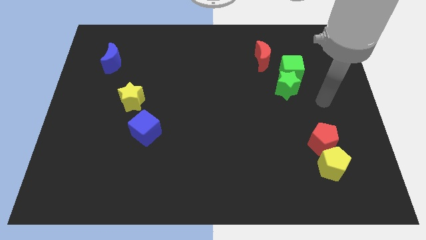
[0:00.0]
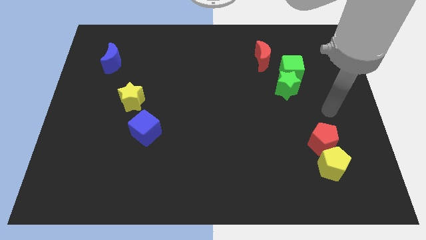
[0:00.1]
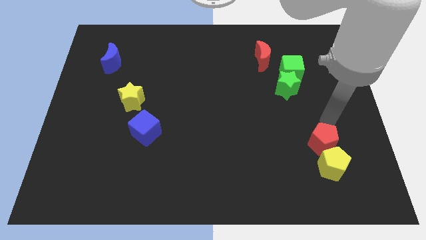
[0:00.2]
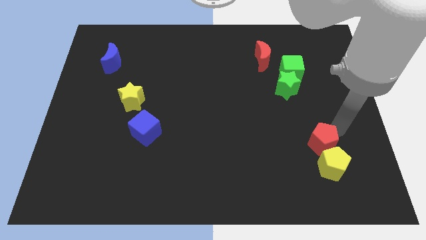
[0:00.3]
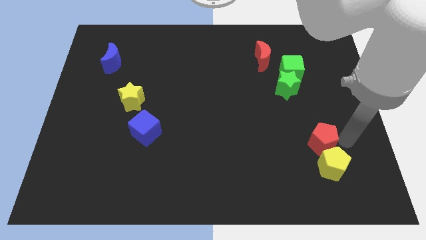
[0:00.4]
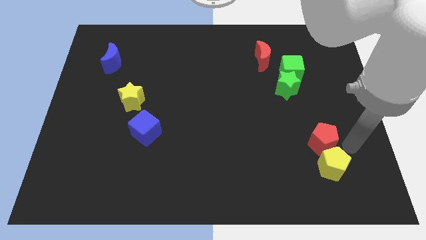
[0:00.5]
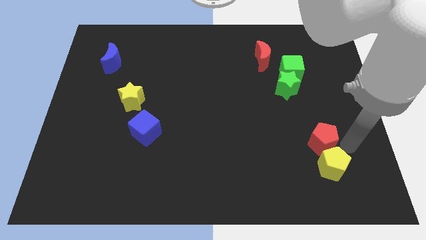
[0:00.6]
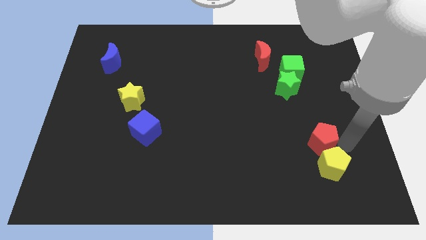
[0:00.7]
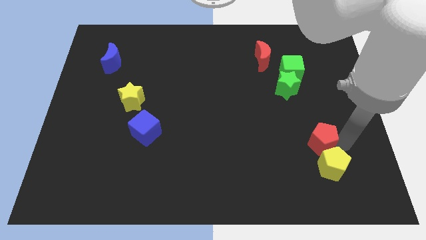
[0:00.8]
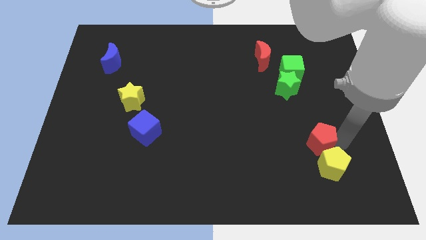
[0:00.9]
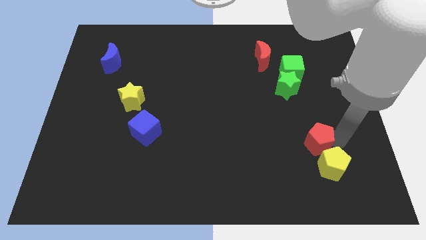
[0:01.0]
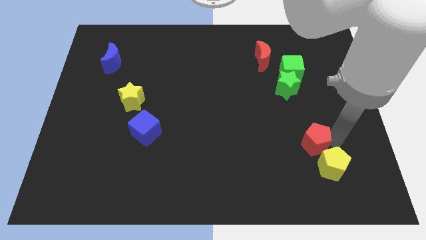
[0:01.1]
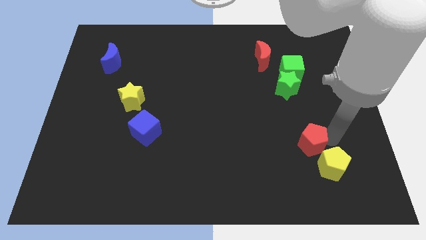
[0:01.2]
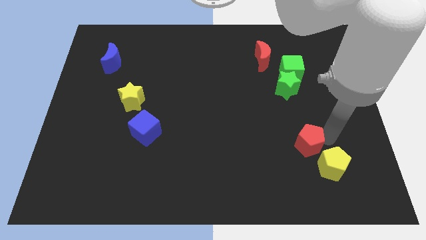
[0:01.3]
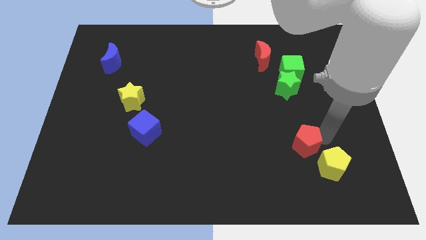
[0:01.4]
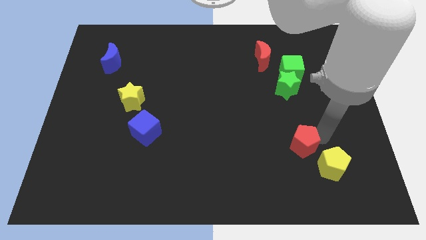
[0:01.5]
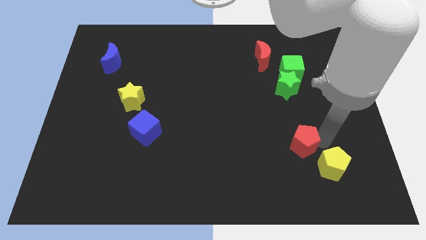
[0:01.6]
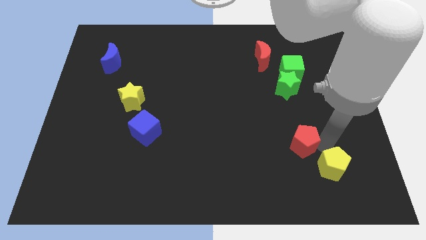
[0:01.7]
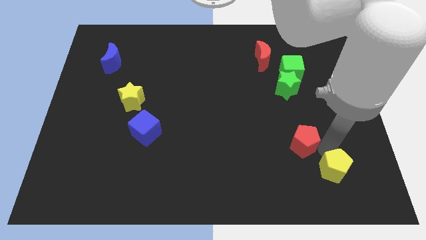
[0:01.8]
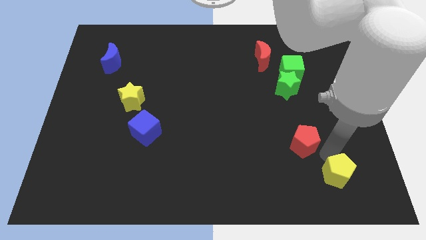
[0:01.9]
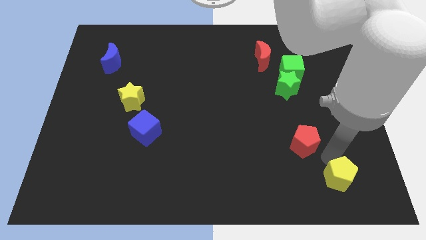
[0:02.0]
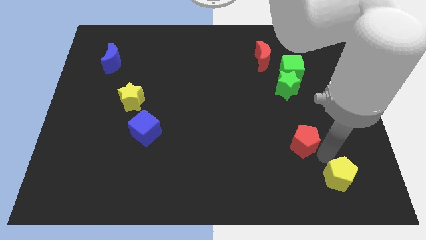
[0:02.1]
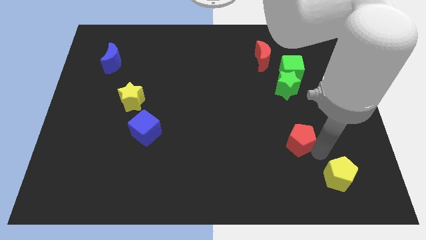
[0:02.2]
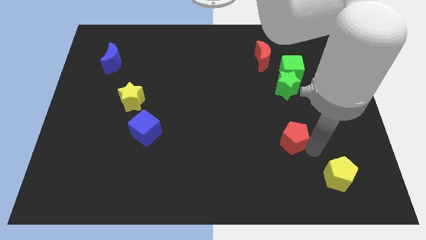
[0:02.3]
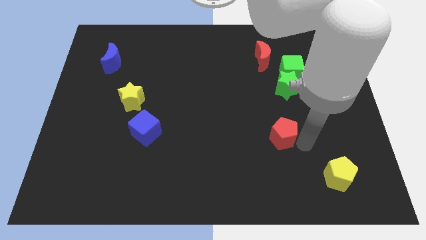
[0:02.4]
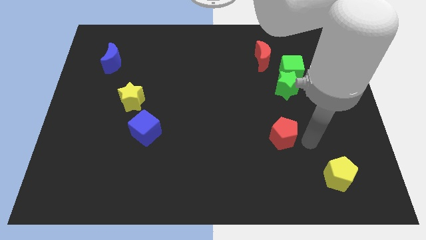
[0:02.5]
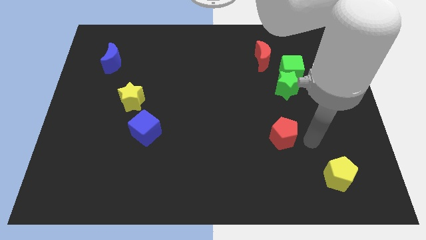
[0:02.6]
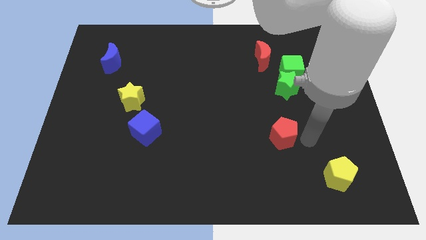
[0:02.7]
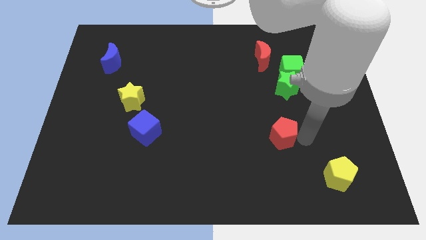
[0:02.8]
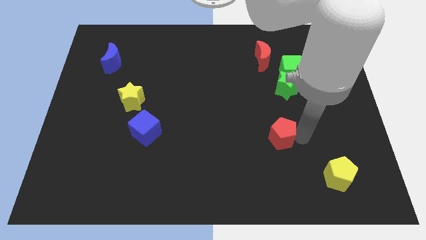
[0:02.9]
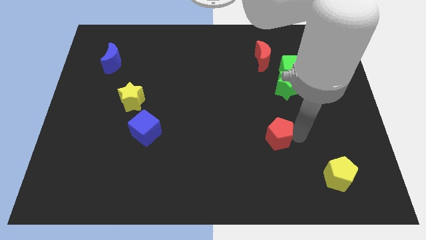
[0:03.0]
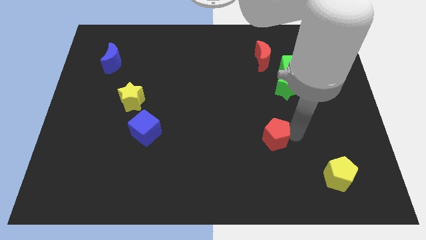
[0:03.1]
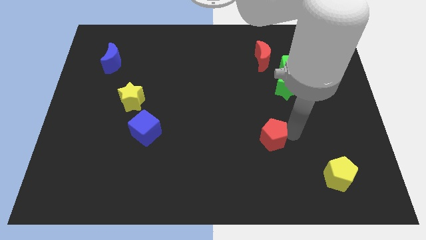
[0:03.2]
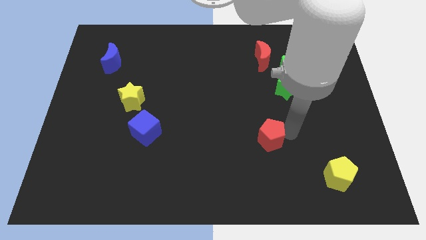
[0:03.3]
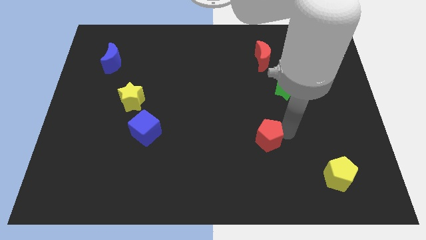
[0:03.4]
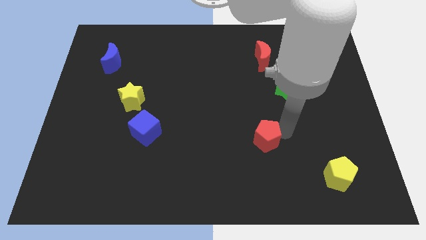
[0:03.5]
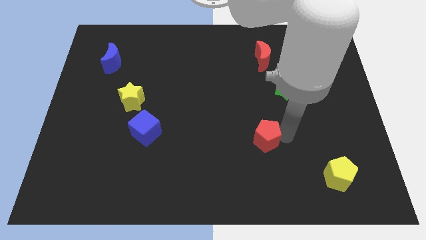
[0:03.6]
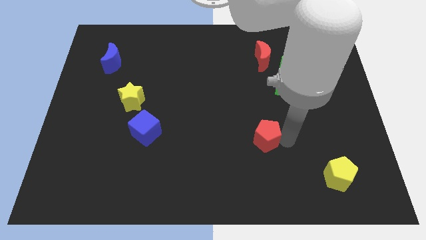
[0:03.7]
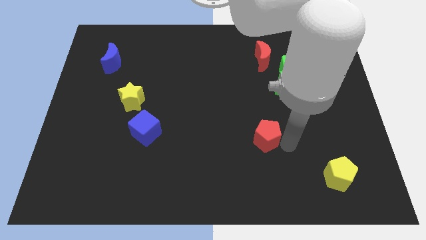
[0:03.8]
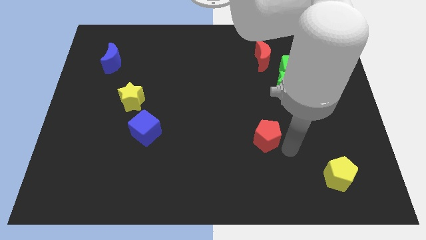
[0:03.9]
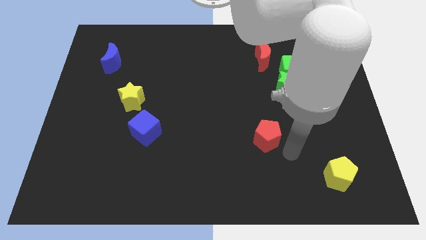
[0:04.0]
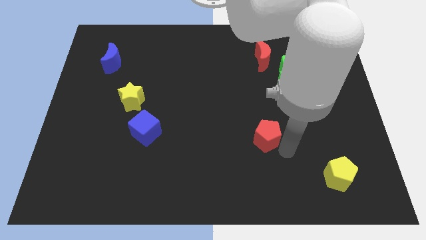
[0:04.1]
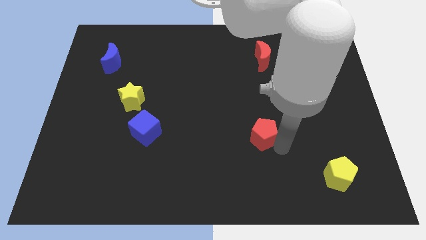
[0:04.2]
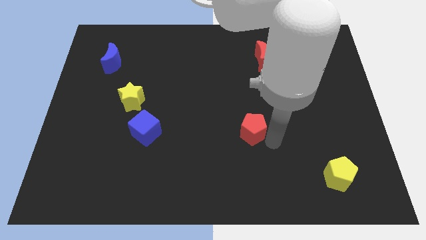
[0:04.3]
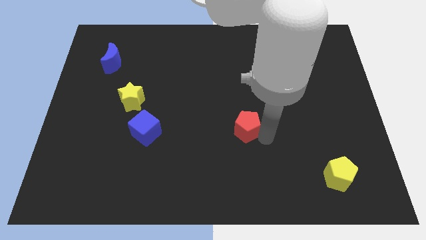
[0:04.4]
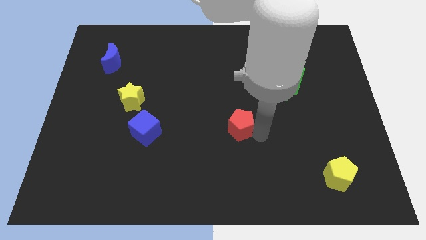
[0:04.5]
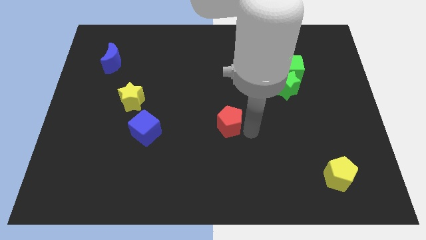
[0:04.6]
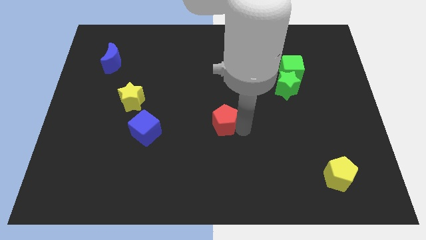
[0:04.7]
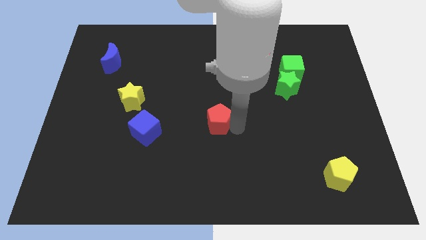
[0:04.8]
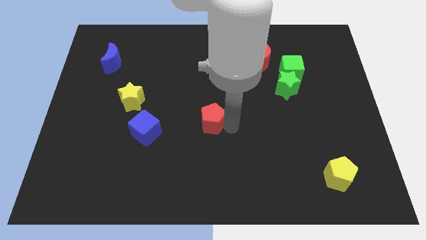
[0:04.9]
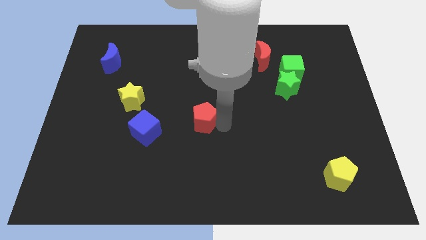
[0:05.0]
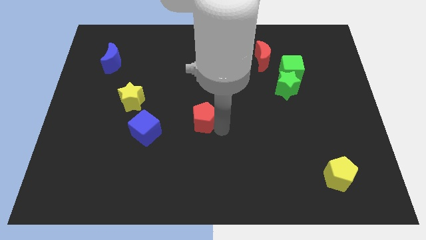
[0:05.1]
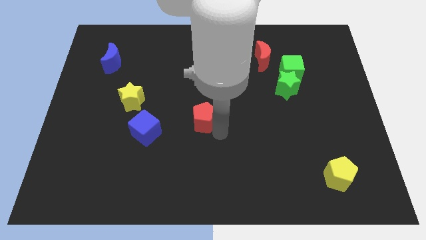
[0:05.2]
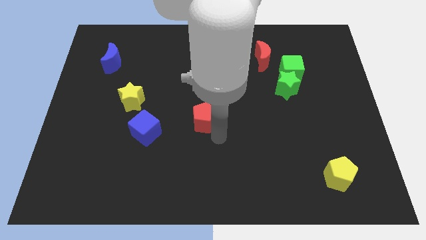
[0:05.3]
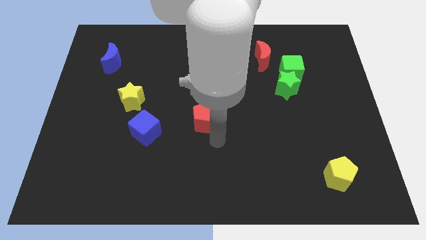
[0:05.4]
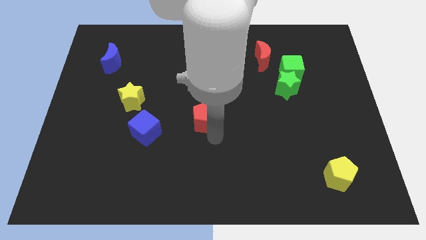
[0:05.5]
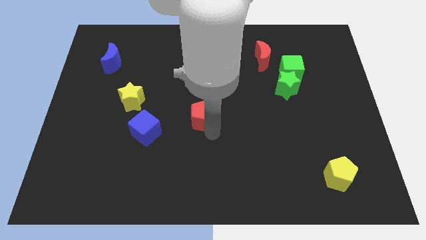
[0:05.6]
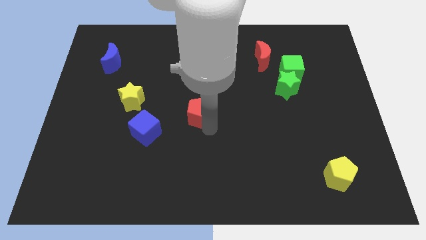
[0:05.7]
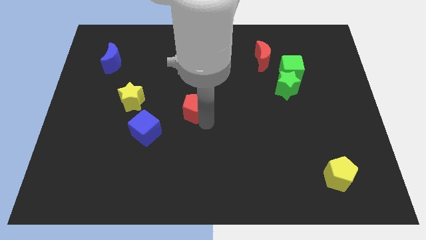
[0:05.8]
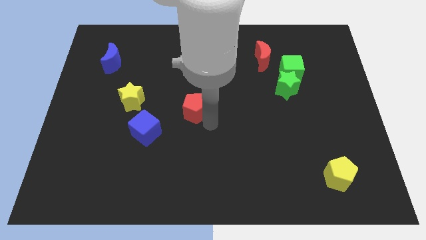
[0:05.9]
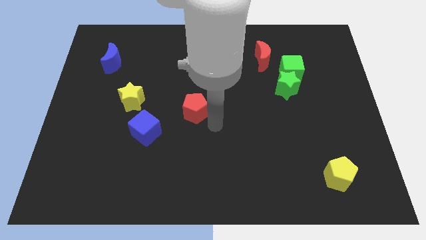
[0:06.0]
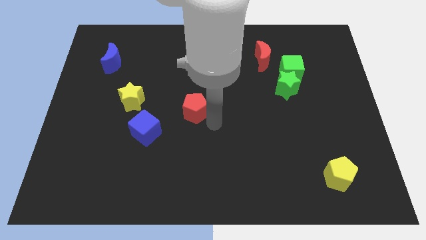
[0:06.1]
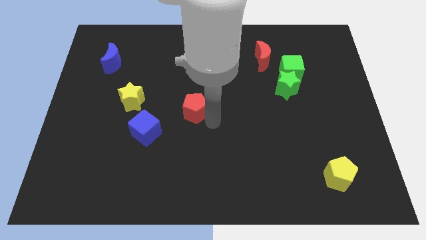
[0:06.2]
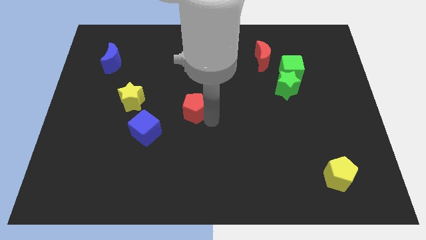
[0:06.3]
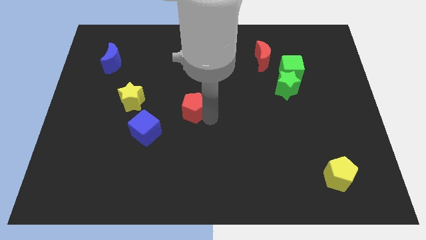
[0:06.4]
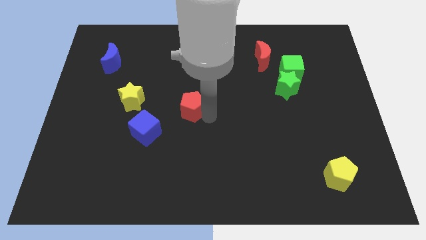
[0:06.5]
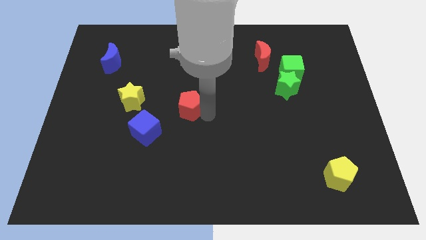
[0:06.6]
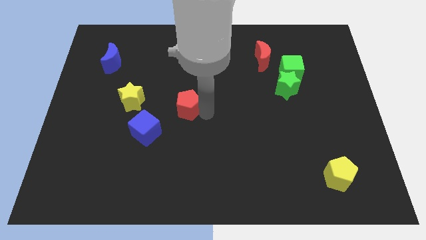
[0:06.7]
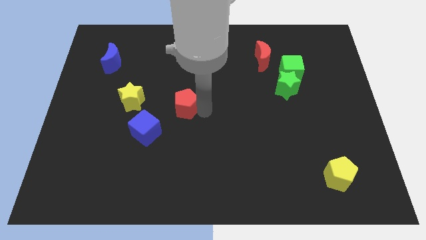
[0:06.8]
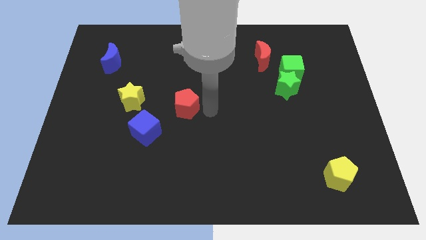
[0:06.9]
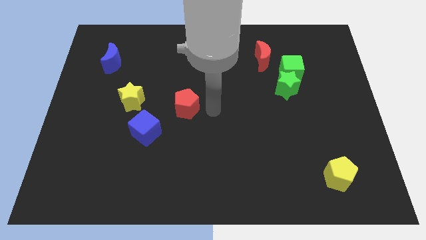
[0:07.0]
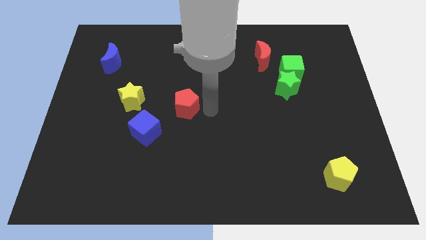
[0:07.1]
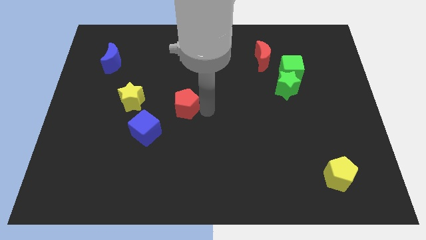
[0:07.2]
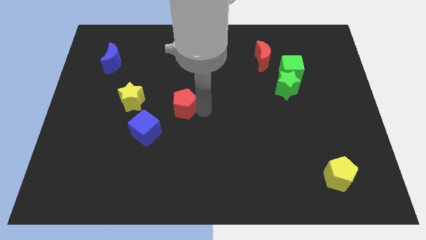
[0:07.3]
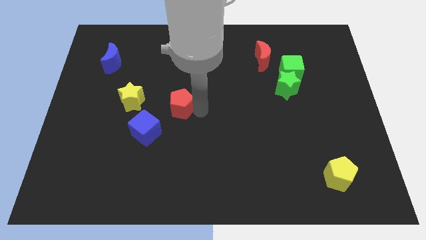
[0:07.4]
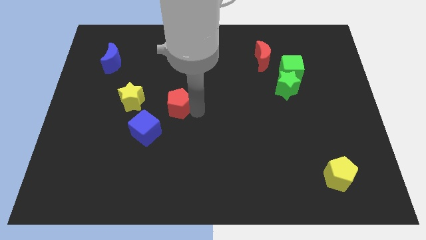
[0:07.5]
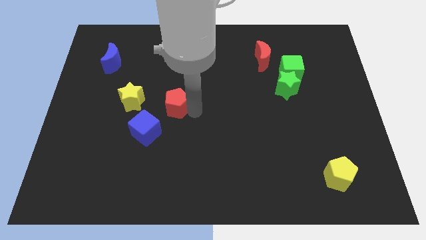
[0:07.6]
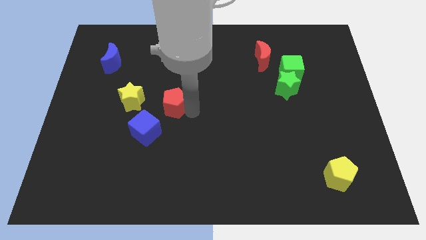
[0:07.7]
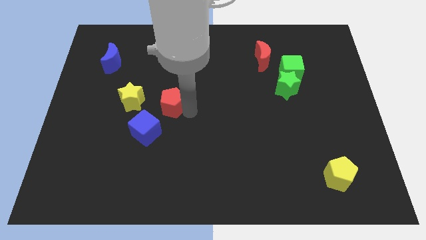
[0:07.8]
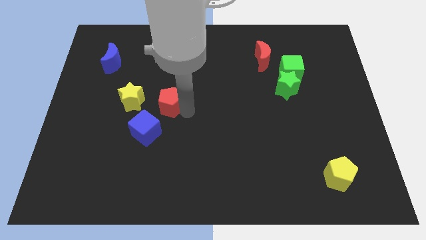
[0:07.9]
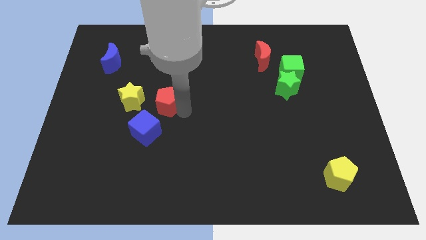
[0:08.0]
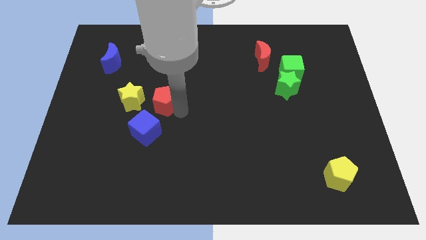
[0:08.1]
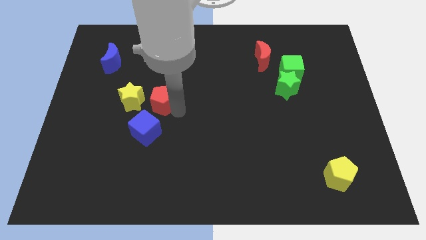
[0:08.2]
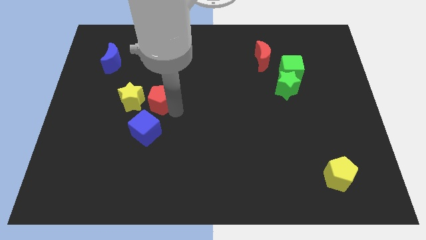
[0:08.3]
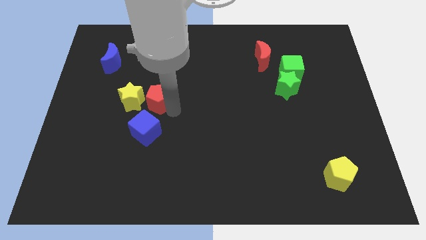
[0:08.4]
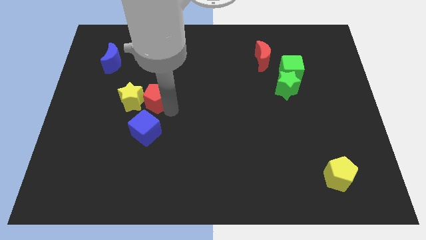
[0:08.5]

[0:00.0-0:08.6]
push the red pentagon to the yellow star
